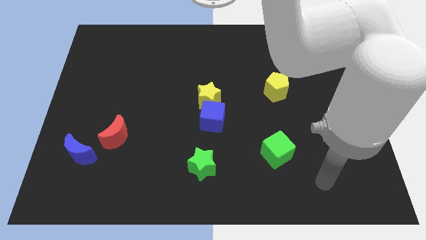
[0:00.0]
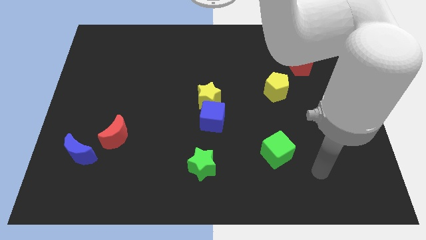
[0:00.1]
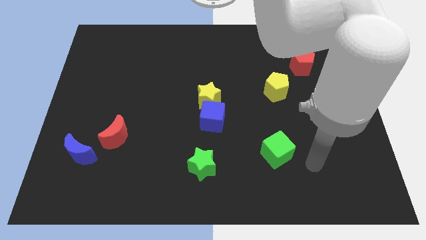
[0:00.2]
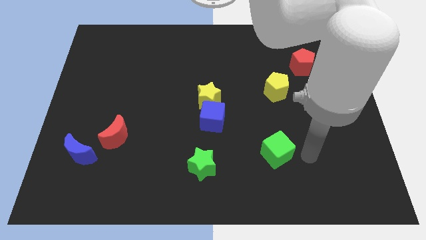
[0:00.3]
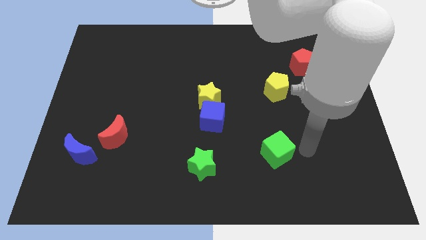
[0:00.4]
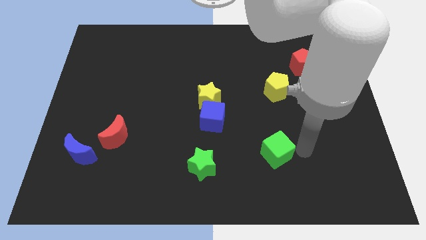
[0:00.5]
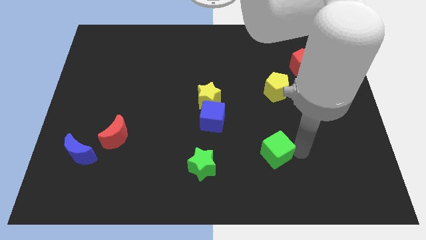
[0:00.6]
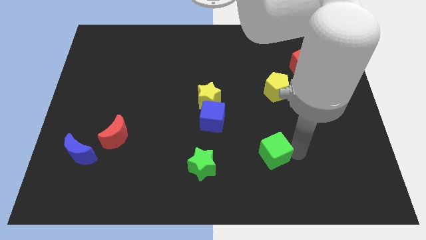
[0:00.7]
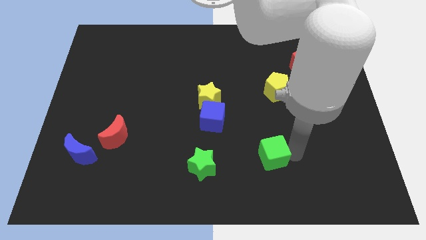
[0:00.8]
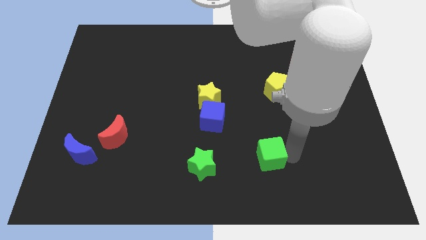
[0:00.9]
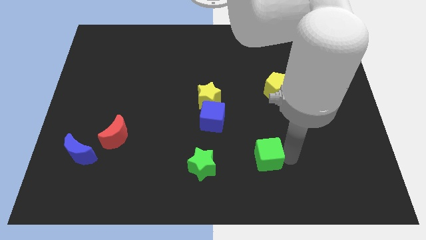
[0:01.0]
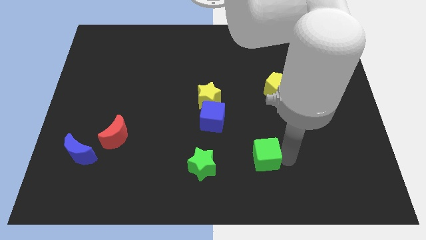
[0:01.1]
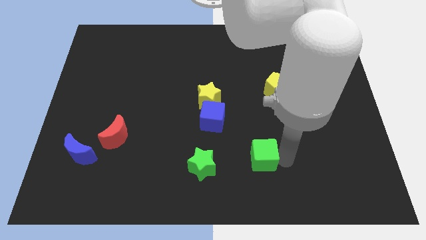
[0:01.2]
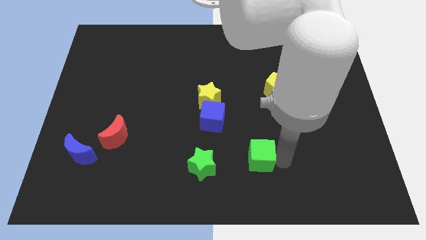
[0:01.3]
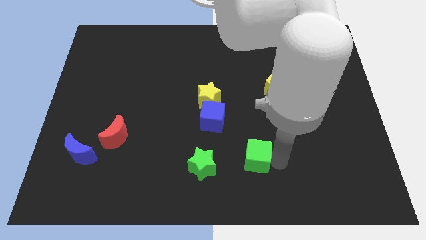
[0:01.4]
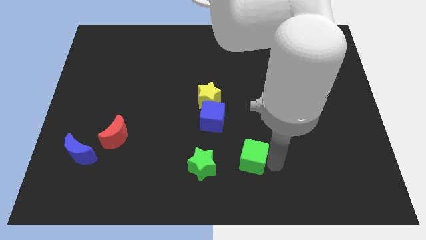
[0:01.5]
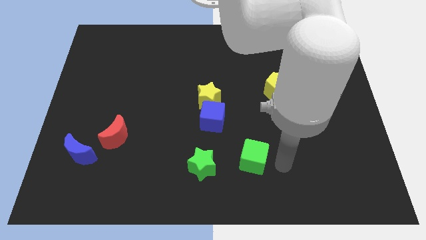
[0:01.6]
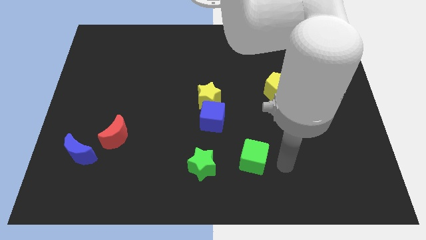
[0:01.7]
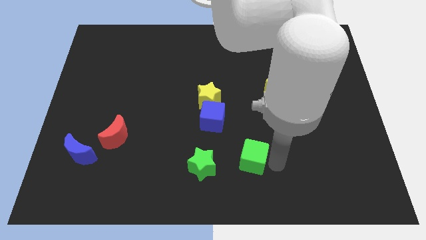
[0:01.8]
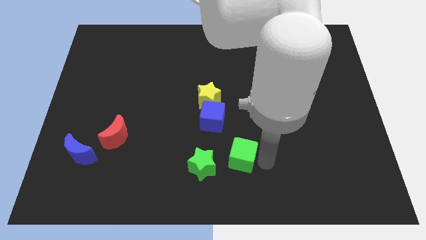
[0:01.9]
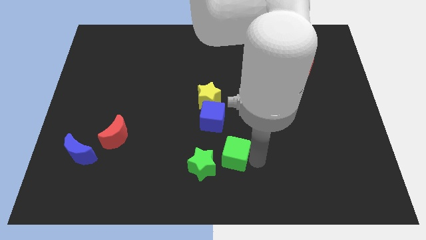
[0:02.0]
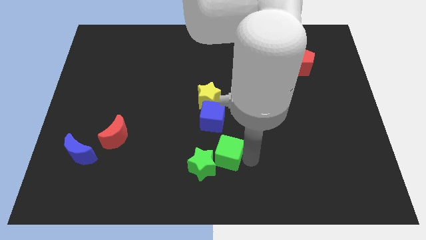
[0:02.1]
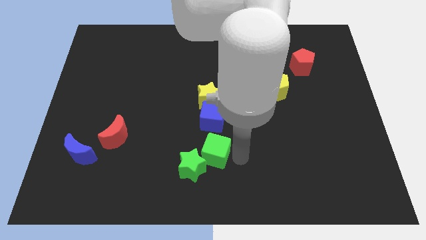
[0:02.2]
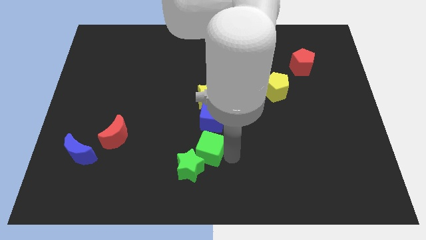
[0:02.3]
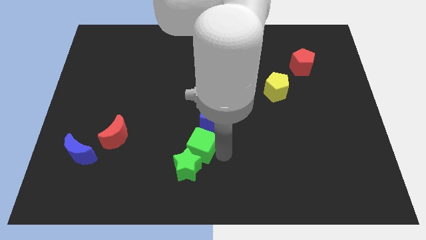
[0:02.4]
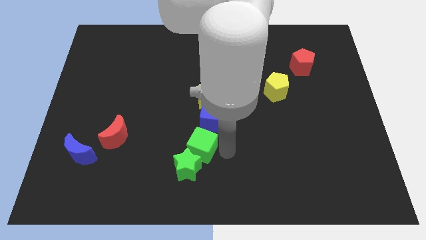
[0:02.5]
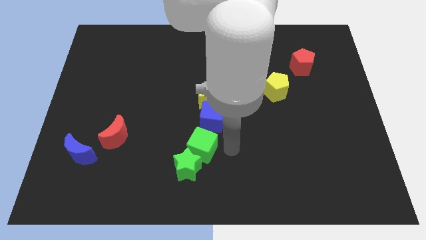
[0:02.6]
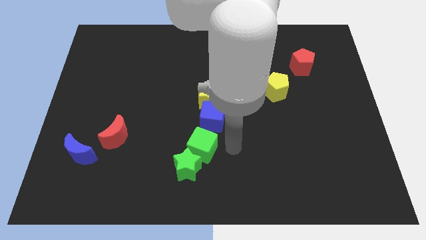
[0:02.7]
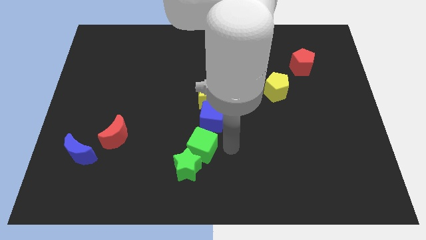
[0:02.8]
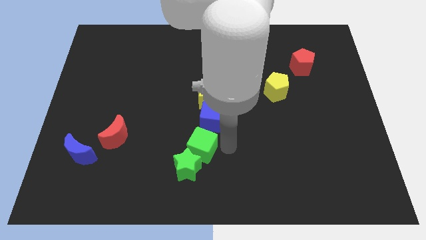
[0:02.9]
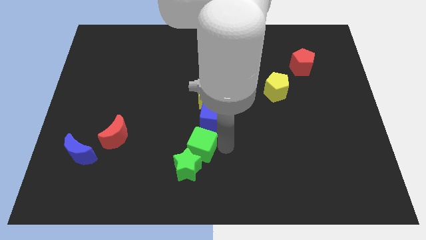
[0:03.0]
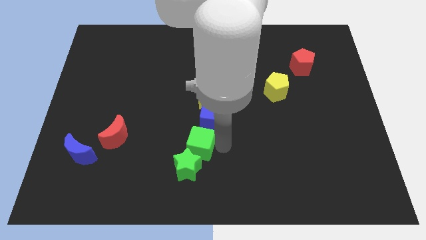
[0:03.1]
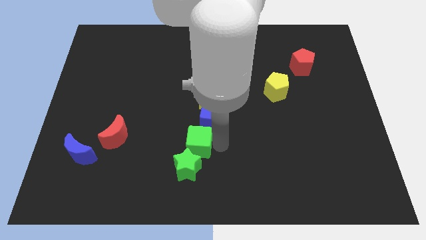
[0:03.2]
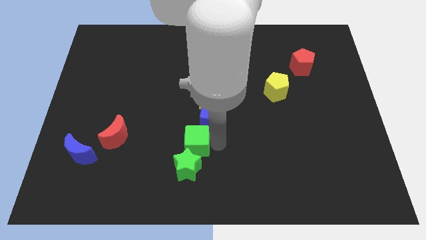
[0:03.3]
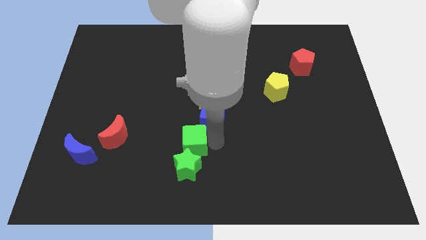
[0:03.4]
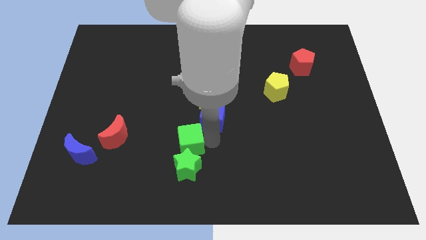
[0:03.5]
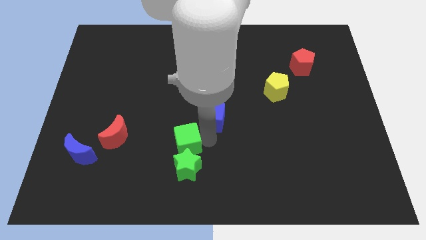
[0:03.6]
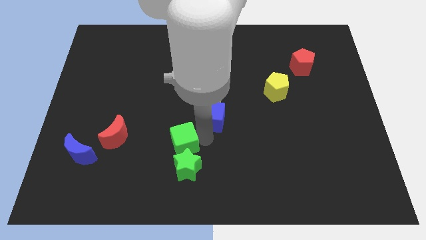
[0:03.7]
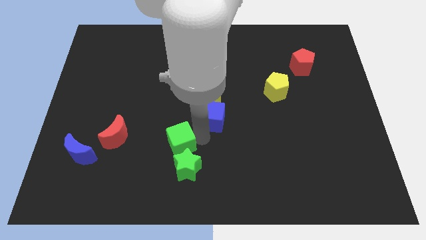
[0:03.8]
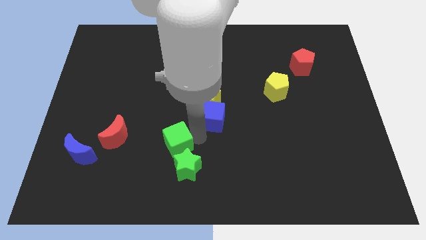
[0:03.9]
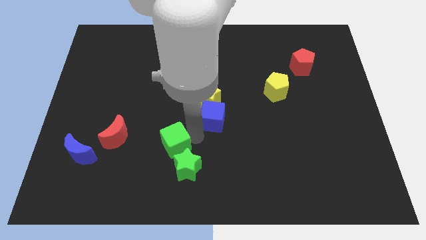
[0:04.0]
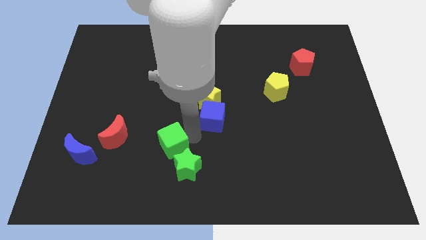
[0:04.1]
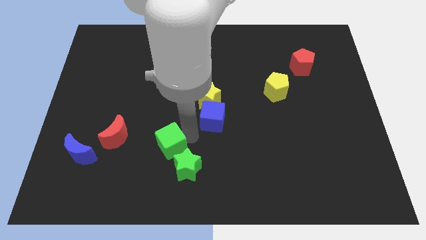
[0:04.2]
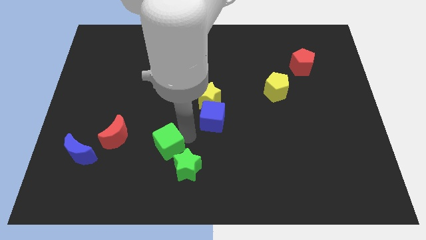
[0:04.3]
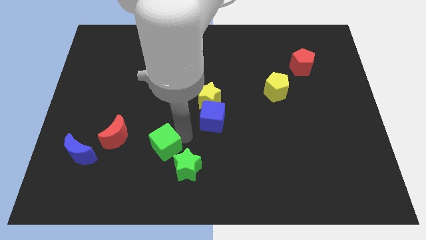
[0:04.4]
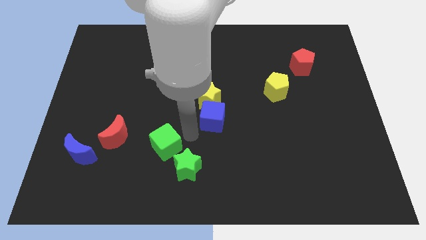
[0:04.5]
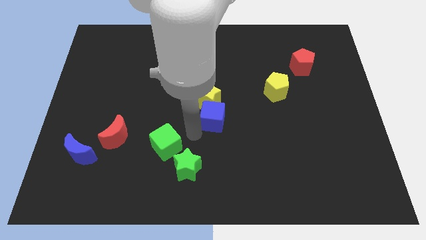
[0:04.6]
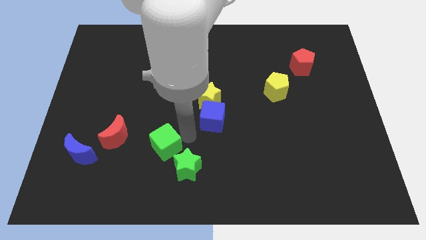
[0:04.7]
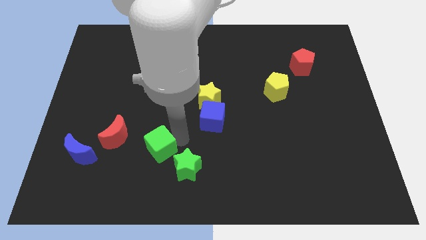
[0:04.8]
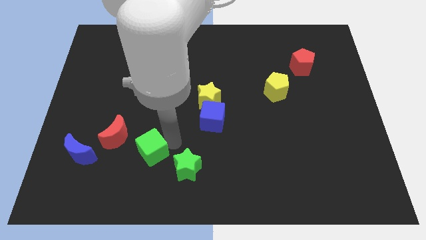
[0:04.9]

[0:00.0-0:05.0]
slide the green cube to the bottom right side of the red moon

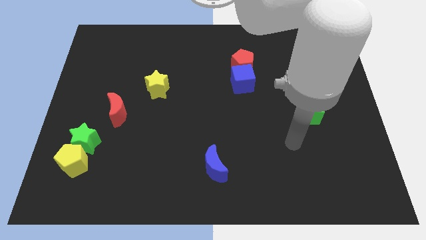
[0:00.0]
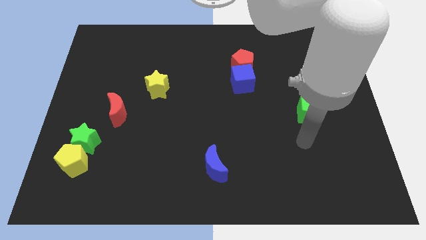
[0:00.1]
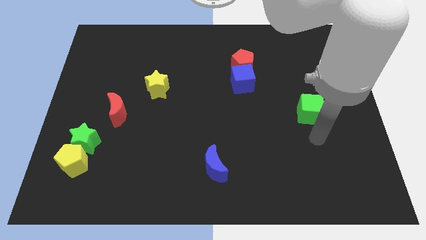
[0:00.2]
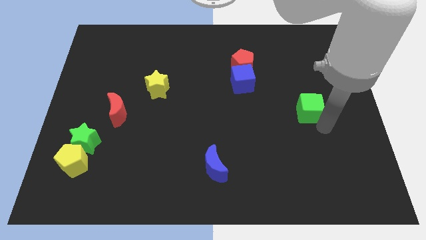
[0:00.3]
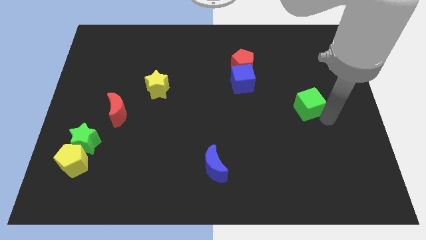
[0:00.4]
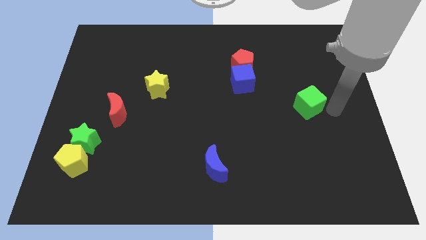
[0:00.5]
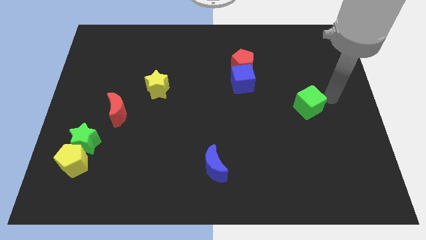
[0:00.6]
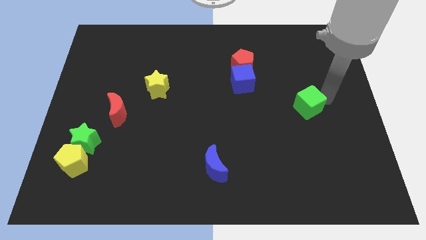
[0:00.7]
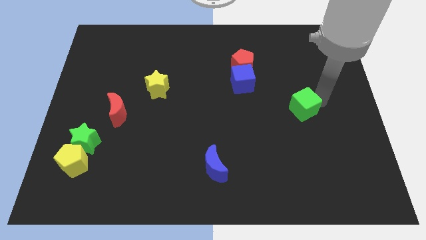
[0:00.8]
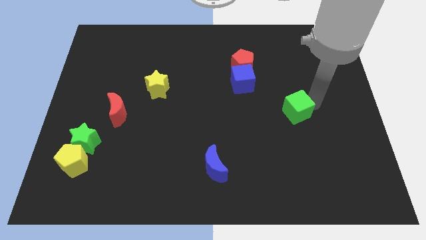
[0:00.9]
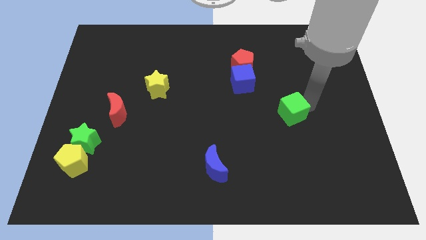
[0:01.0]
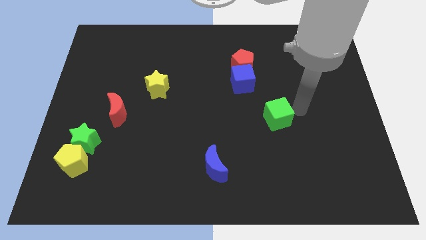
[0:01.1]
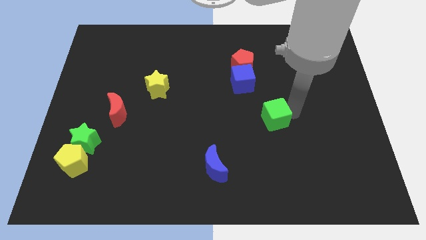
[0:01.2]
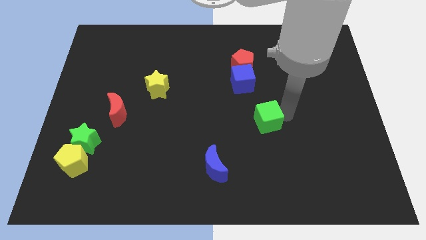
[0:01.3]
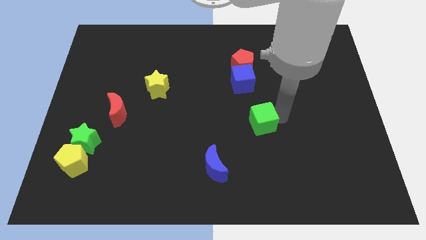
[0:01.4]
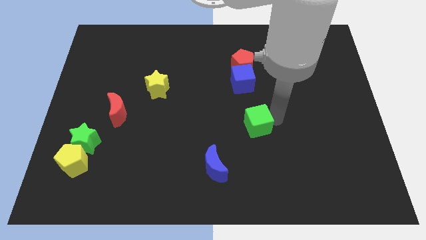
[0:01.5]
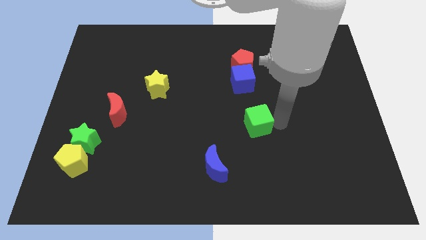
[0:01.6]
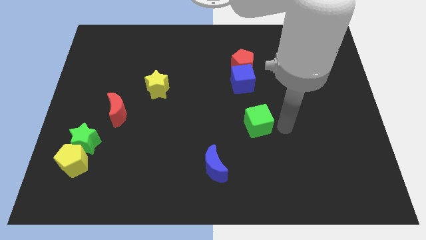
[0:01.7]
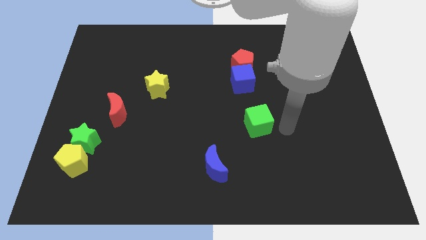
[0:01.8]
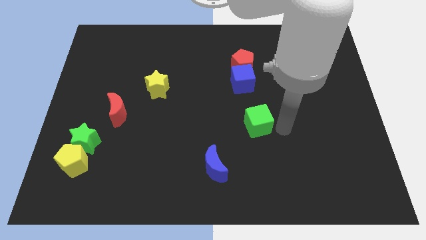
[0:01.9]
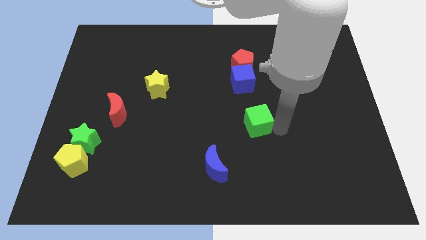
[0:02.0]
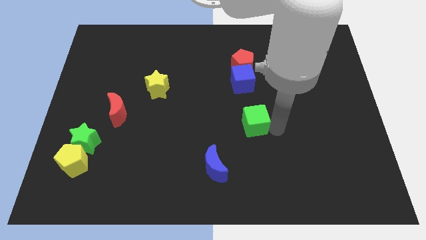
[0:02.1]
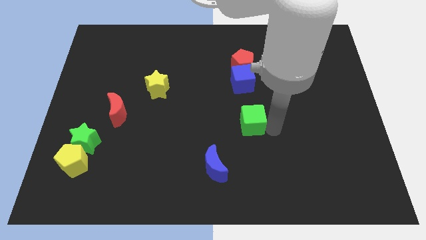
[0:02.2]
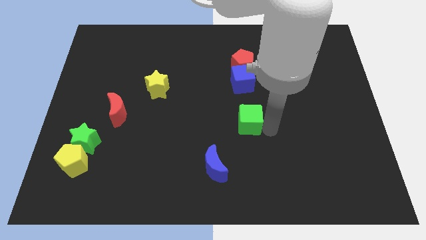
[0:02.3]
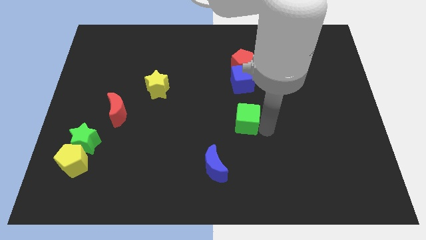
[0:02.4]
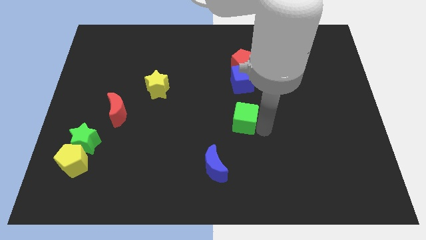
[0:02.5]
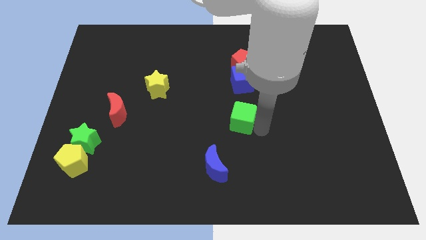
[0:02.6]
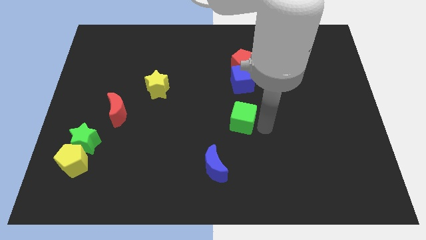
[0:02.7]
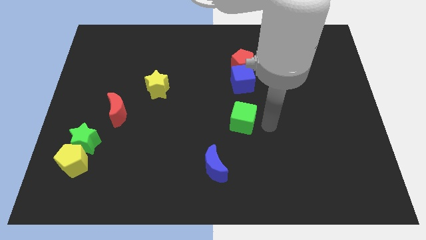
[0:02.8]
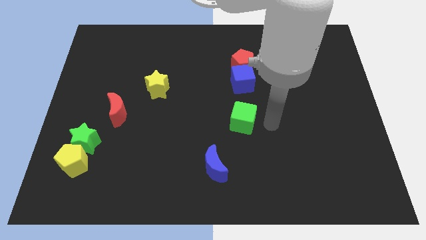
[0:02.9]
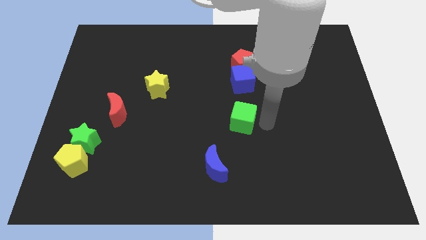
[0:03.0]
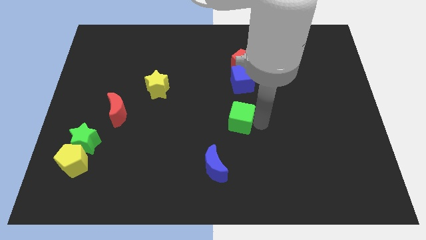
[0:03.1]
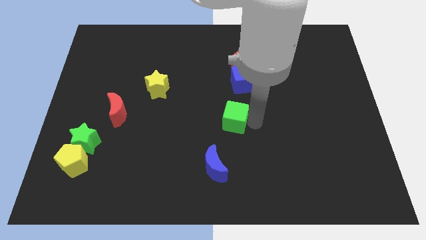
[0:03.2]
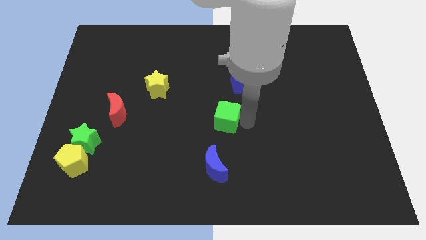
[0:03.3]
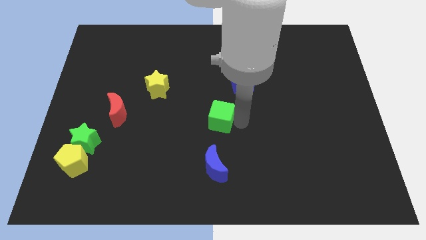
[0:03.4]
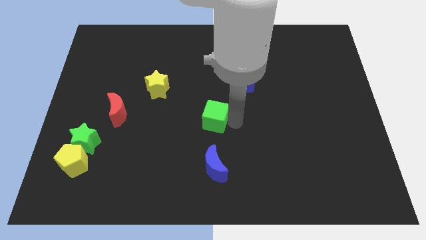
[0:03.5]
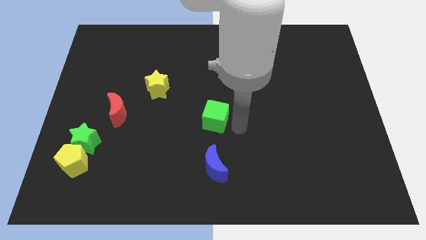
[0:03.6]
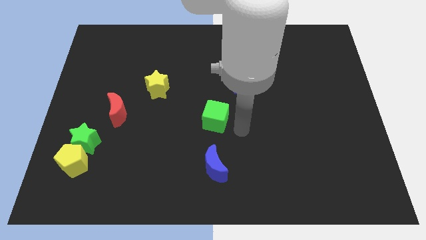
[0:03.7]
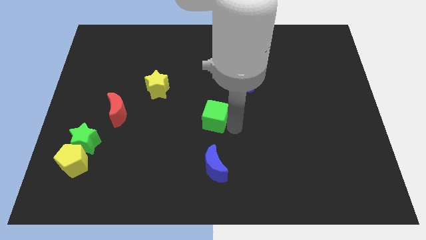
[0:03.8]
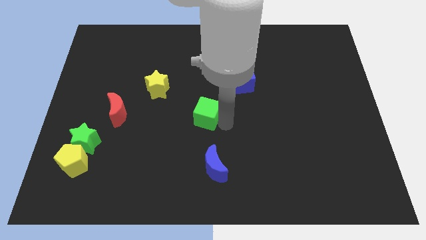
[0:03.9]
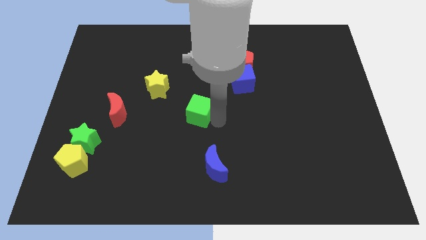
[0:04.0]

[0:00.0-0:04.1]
push the green cube to the bottom right of the yellow star
